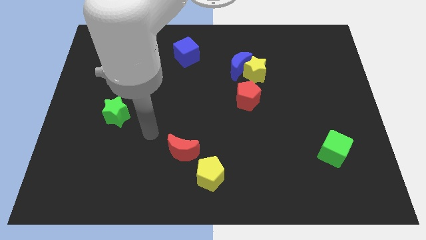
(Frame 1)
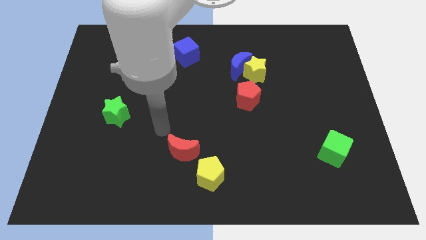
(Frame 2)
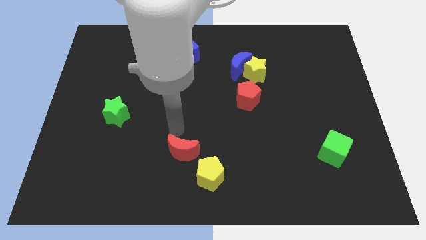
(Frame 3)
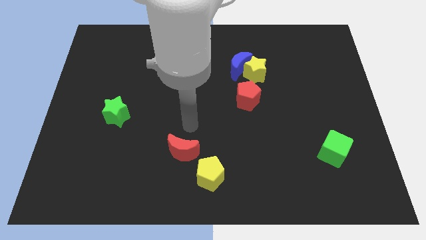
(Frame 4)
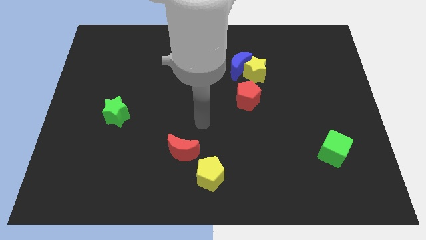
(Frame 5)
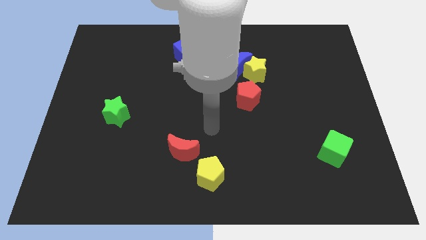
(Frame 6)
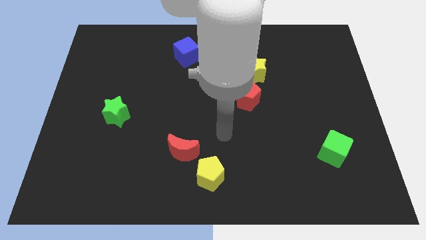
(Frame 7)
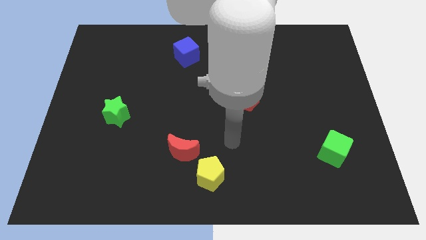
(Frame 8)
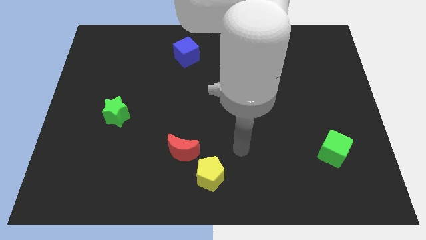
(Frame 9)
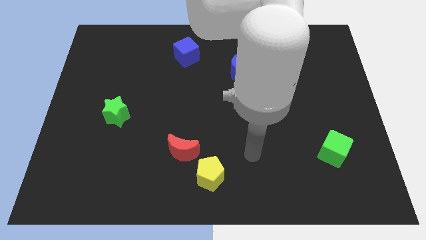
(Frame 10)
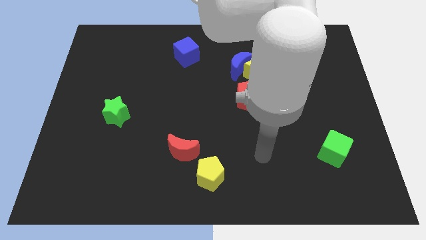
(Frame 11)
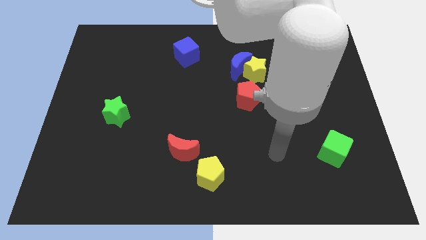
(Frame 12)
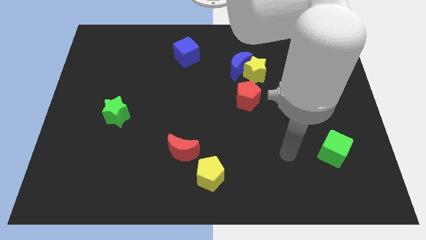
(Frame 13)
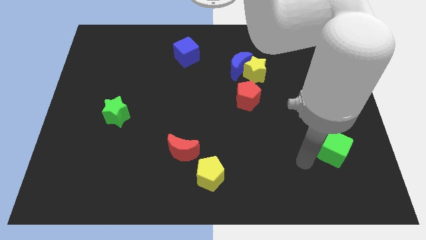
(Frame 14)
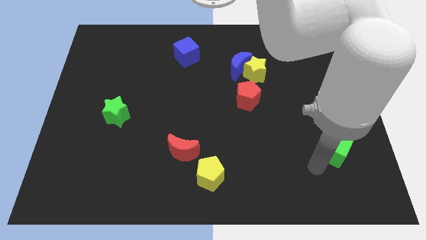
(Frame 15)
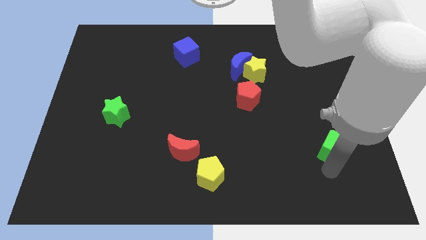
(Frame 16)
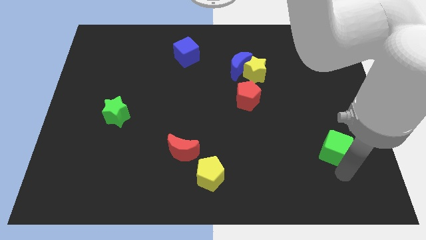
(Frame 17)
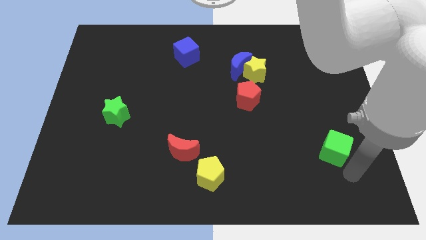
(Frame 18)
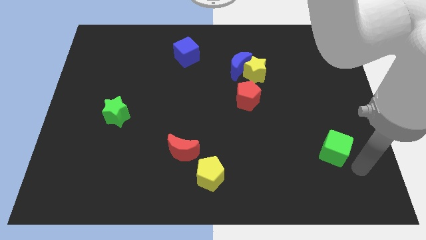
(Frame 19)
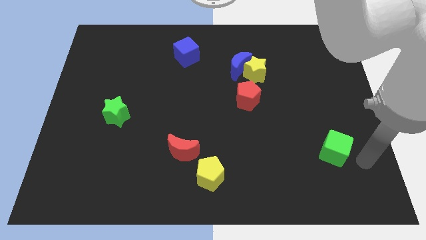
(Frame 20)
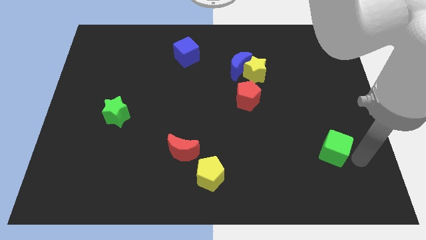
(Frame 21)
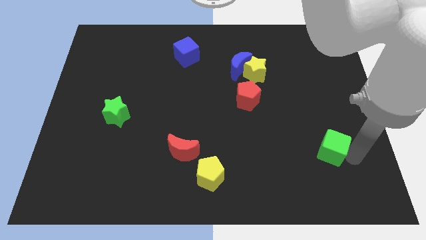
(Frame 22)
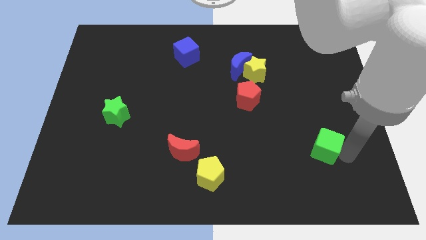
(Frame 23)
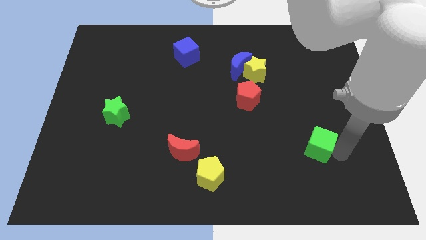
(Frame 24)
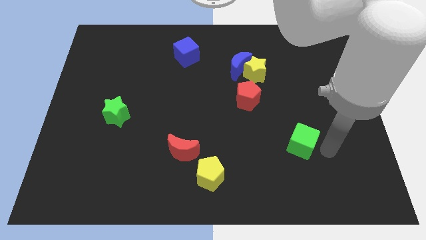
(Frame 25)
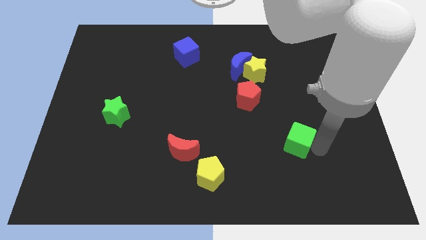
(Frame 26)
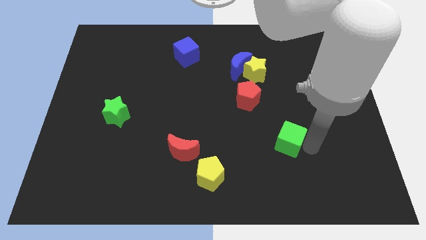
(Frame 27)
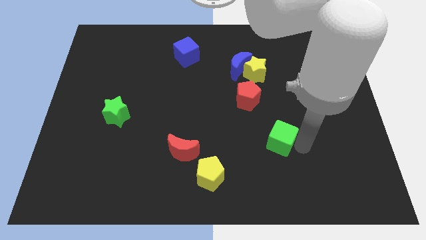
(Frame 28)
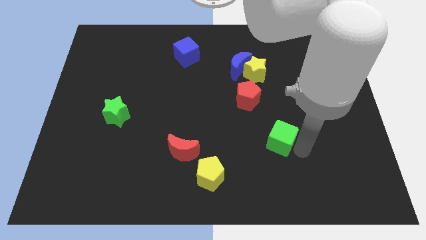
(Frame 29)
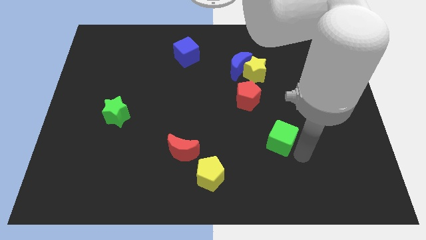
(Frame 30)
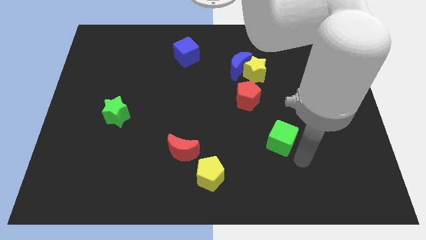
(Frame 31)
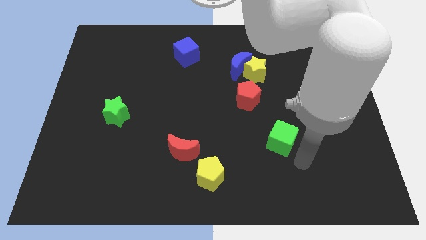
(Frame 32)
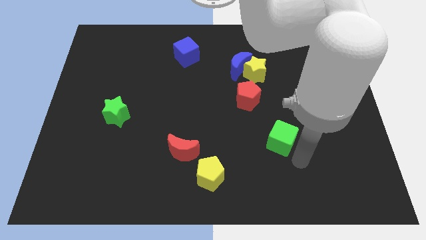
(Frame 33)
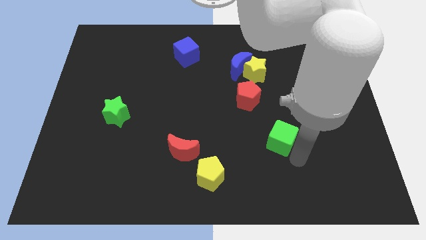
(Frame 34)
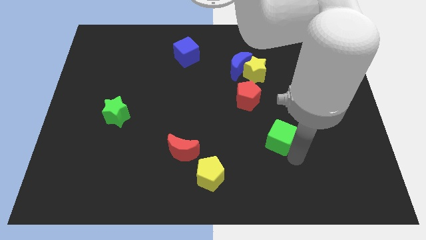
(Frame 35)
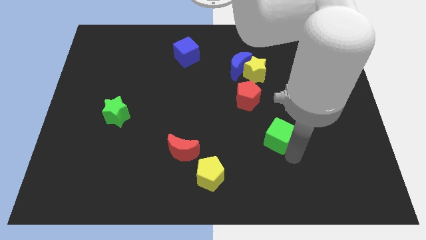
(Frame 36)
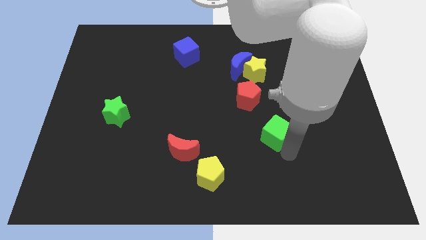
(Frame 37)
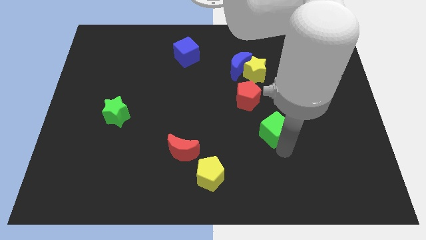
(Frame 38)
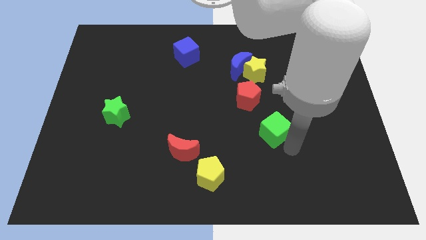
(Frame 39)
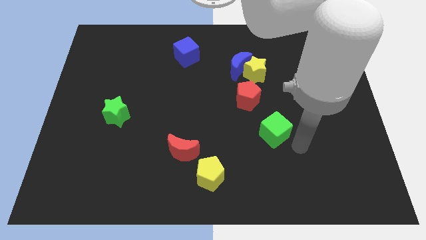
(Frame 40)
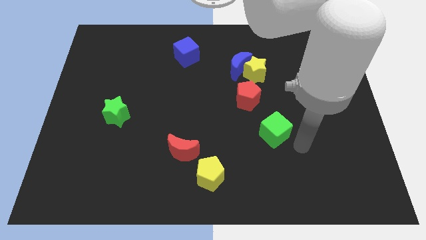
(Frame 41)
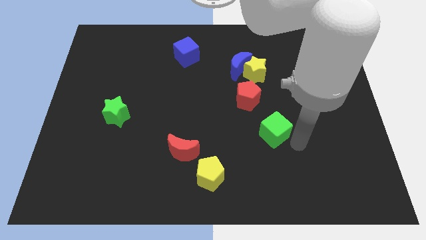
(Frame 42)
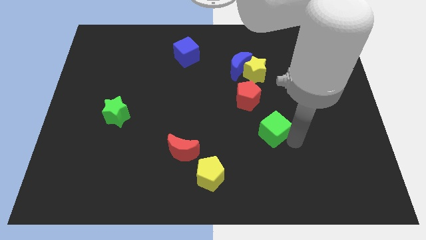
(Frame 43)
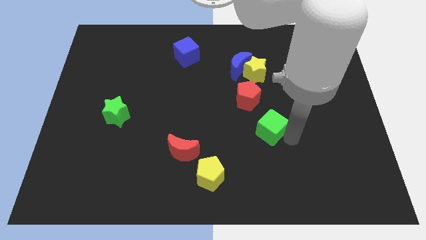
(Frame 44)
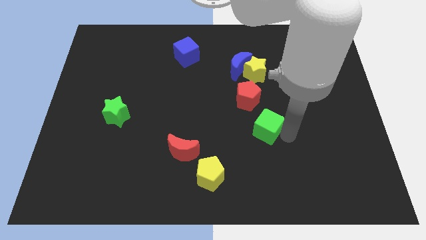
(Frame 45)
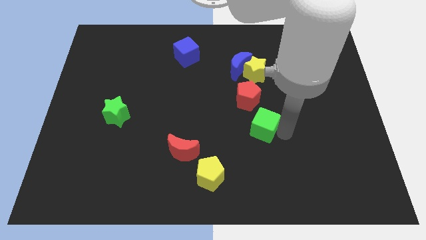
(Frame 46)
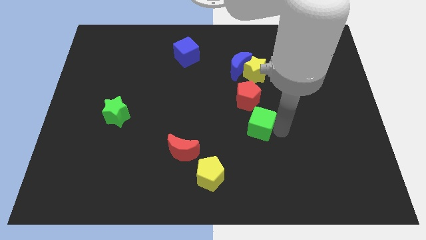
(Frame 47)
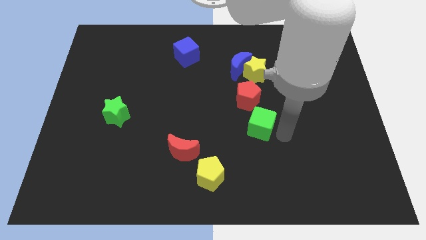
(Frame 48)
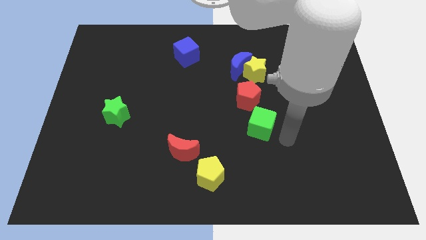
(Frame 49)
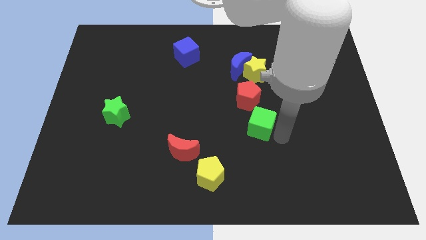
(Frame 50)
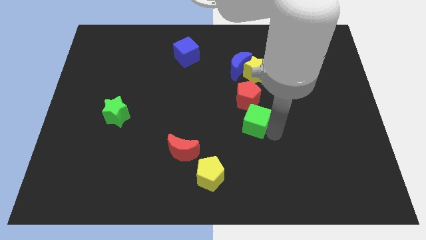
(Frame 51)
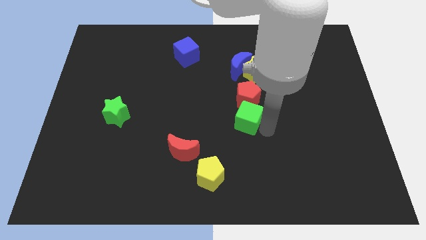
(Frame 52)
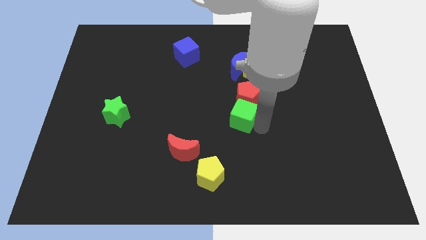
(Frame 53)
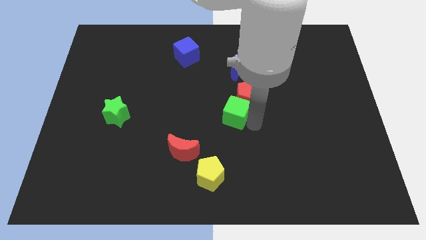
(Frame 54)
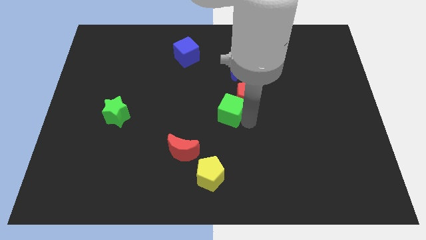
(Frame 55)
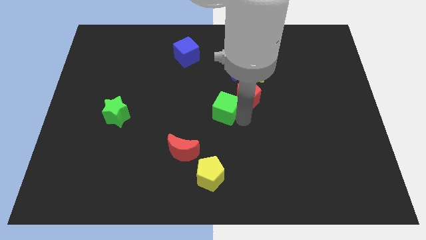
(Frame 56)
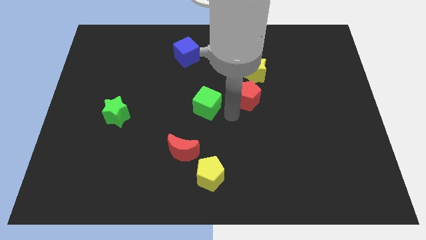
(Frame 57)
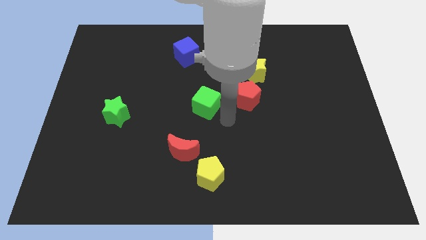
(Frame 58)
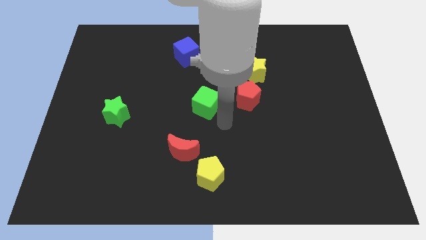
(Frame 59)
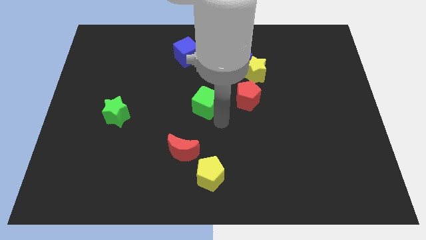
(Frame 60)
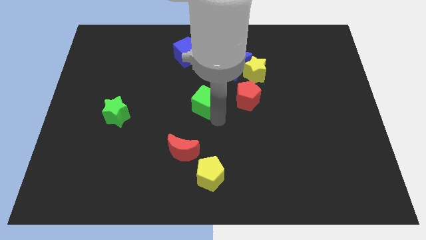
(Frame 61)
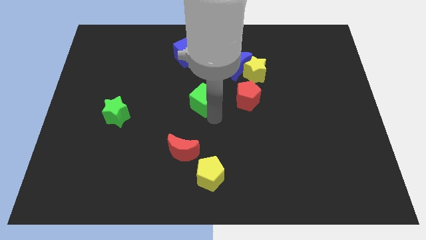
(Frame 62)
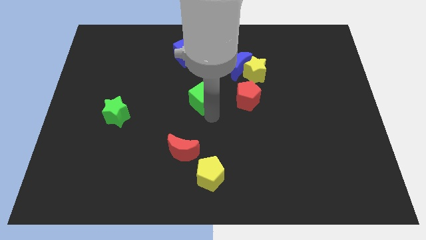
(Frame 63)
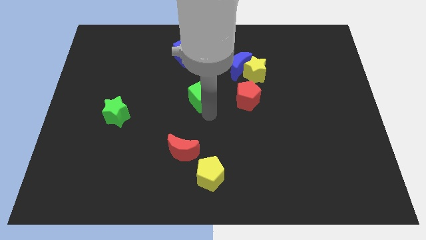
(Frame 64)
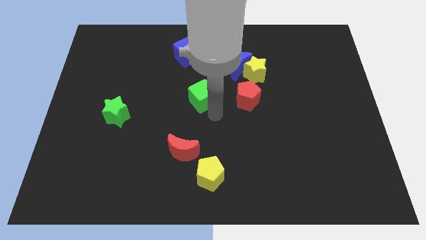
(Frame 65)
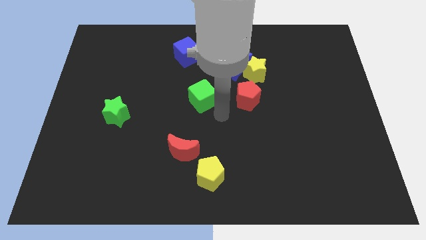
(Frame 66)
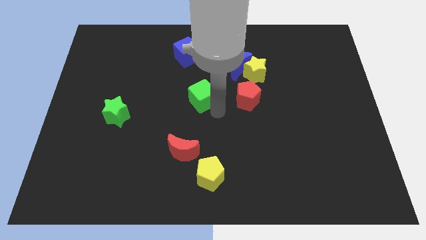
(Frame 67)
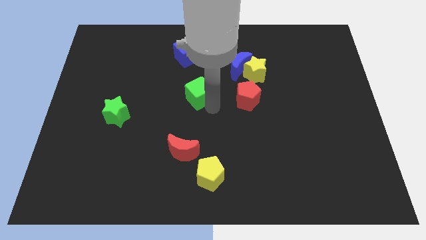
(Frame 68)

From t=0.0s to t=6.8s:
push the green cube to the bottom side of the blue cube

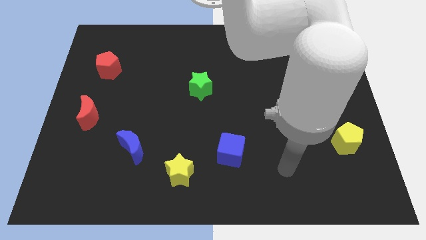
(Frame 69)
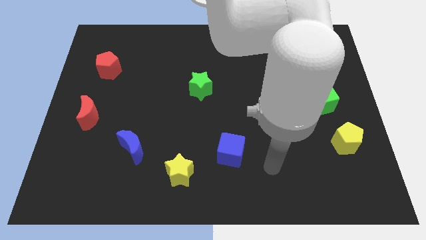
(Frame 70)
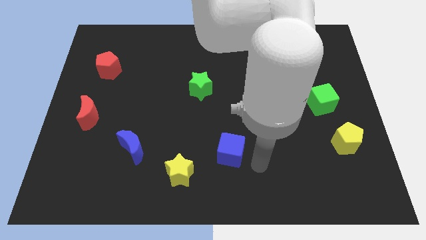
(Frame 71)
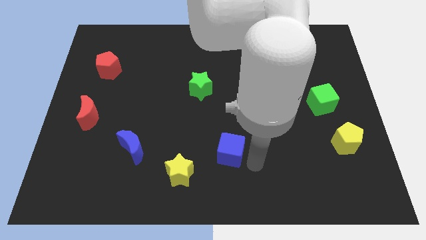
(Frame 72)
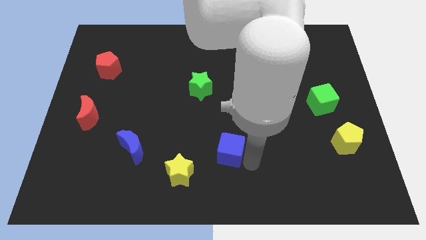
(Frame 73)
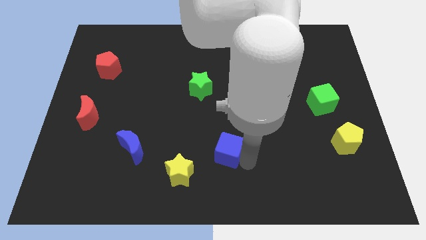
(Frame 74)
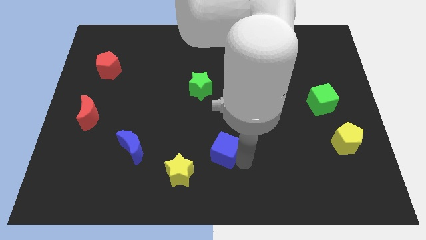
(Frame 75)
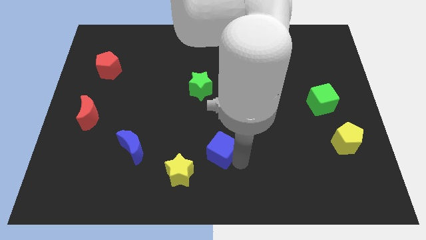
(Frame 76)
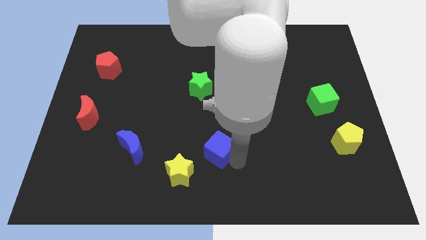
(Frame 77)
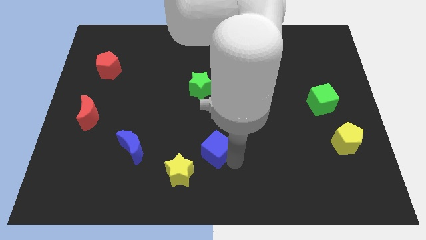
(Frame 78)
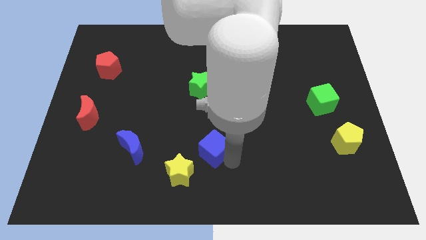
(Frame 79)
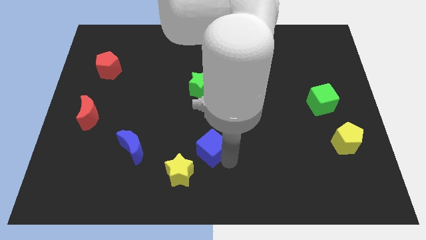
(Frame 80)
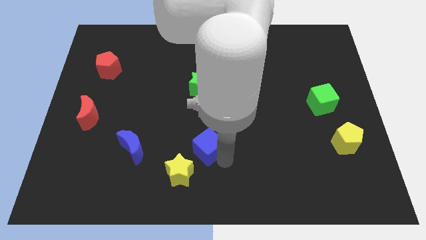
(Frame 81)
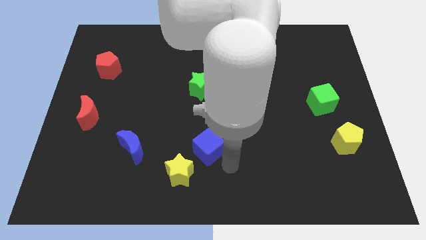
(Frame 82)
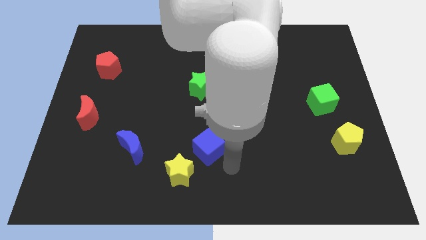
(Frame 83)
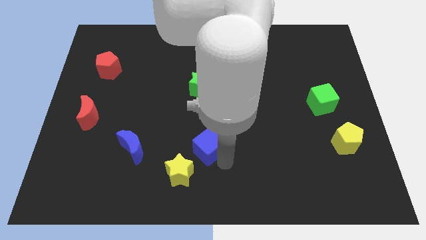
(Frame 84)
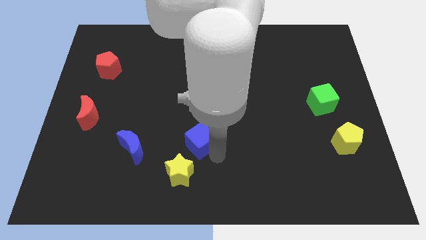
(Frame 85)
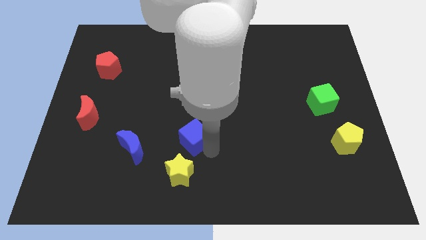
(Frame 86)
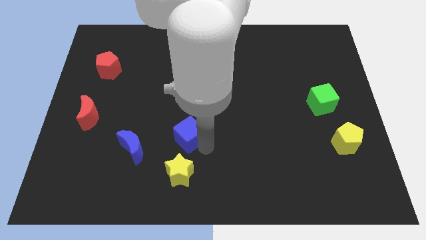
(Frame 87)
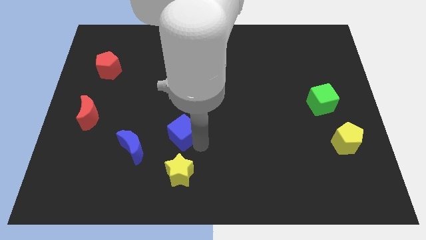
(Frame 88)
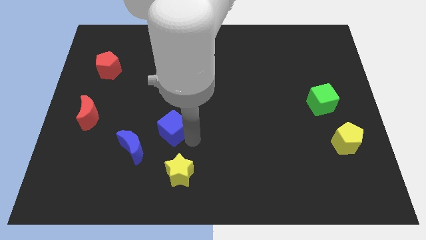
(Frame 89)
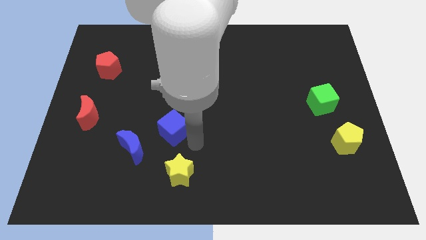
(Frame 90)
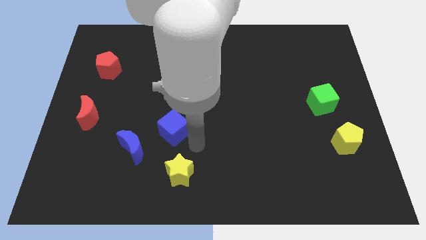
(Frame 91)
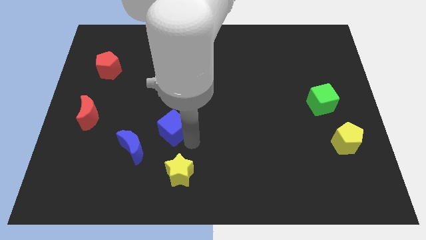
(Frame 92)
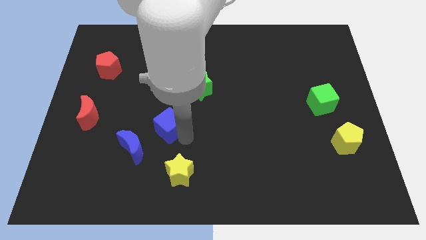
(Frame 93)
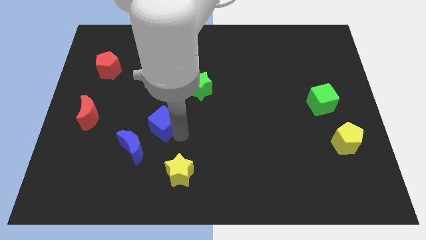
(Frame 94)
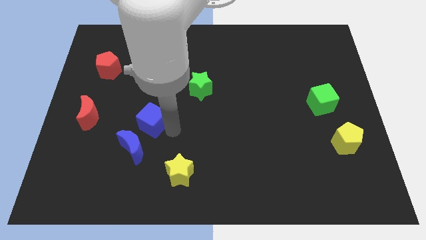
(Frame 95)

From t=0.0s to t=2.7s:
push the blue cube to the top side of the blue moon
